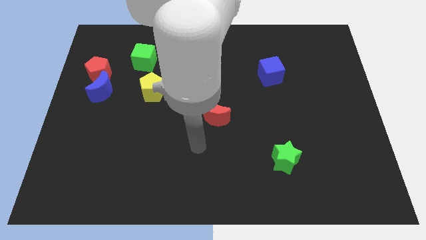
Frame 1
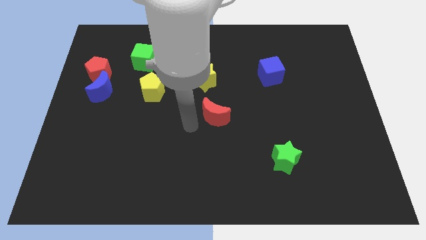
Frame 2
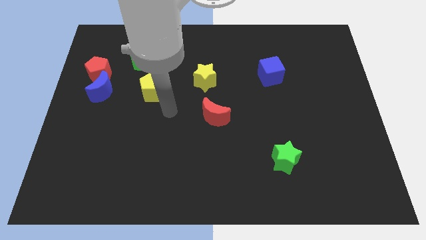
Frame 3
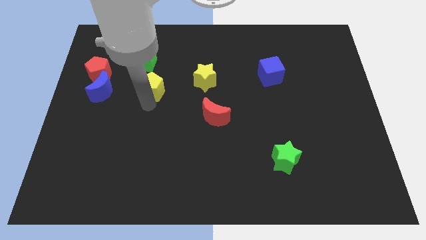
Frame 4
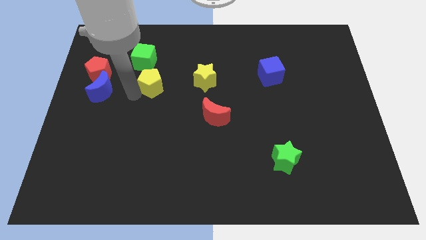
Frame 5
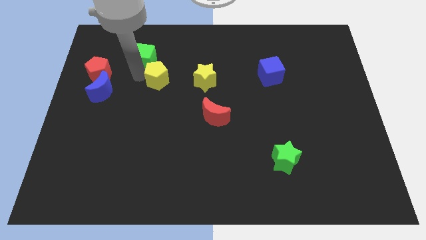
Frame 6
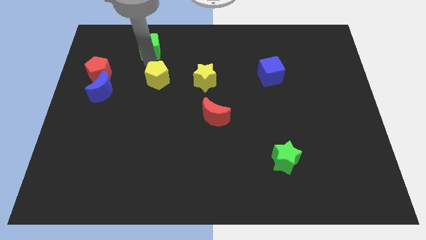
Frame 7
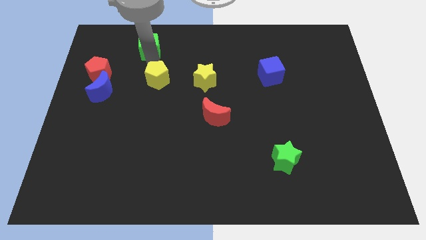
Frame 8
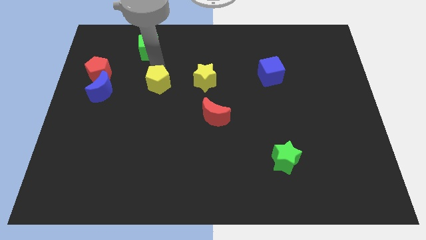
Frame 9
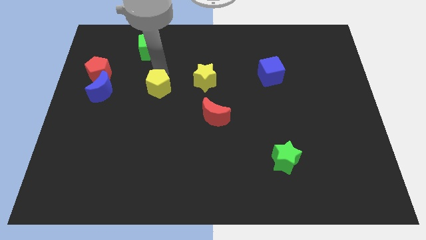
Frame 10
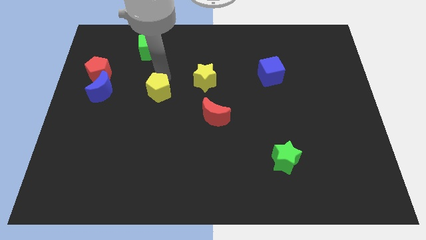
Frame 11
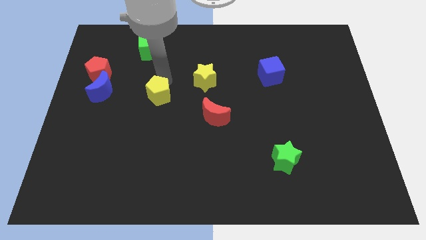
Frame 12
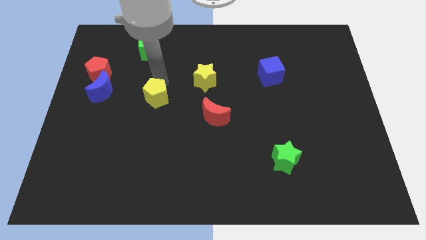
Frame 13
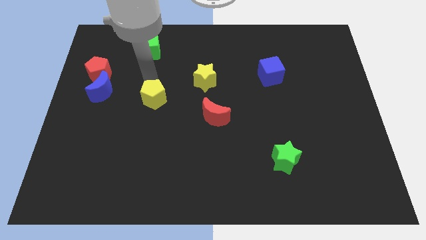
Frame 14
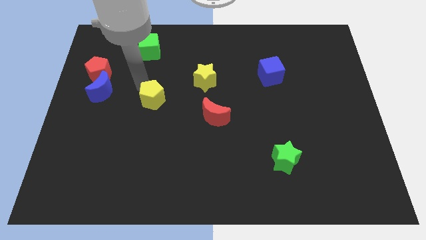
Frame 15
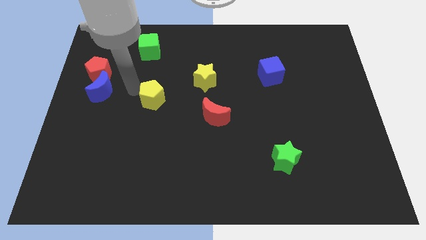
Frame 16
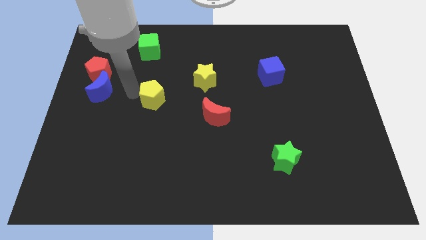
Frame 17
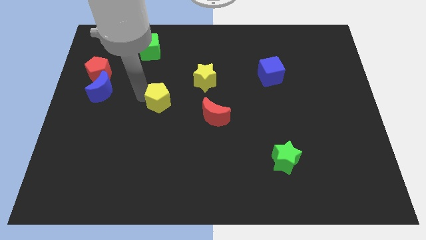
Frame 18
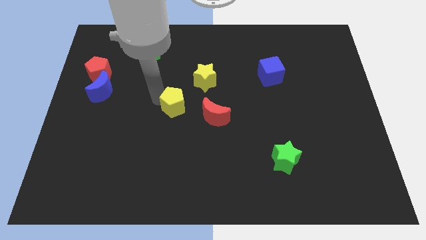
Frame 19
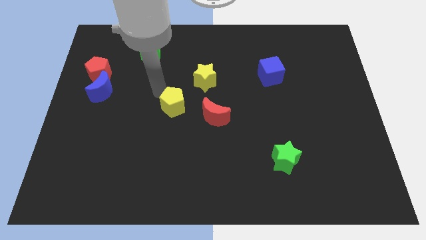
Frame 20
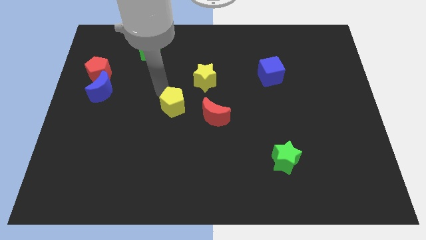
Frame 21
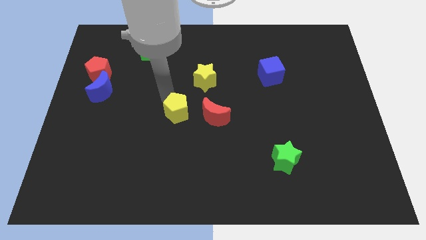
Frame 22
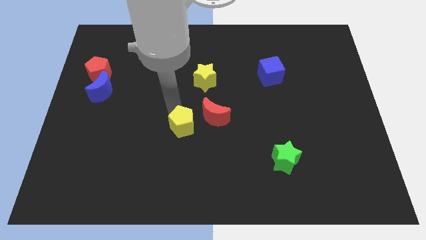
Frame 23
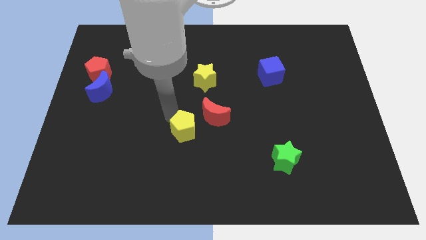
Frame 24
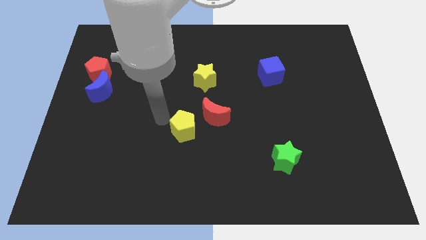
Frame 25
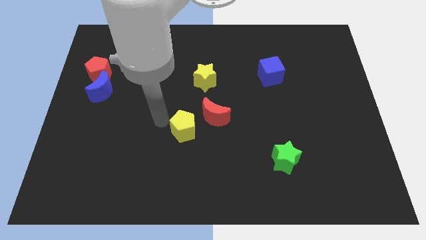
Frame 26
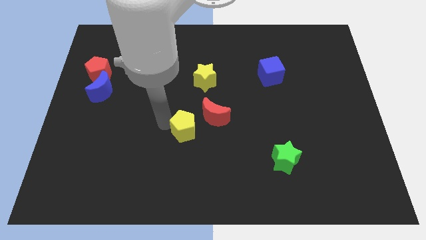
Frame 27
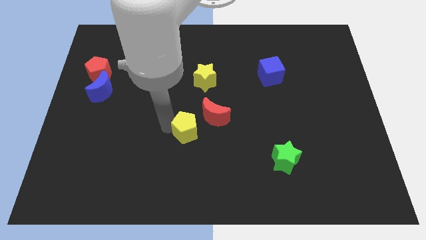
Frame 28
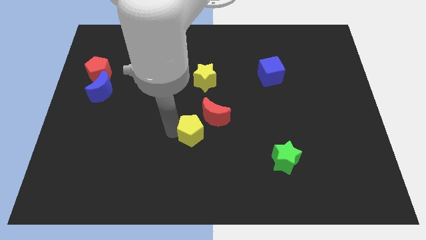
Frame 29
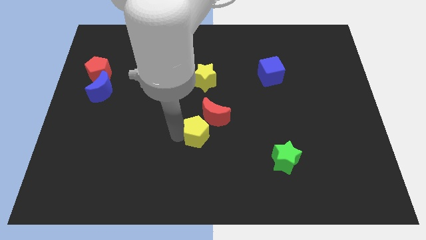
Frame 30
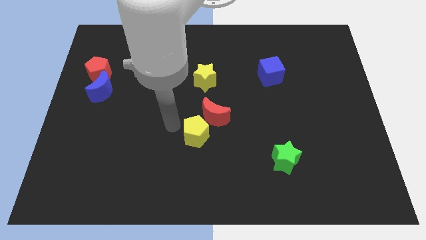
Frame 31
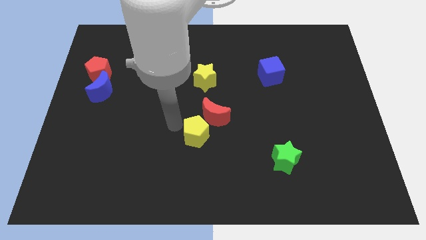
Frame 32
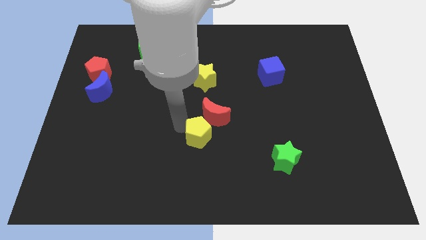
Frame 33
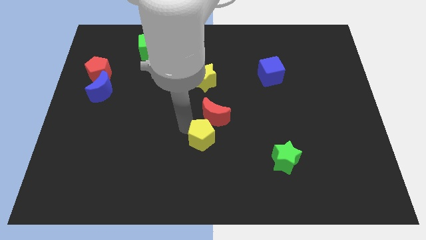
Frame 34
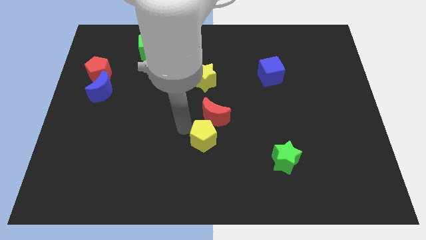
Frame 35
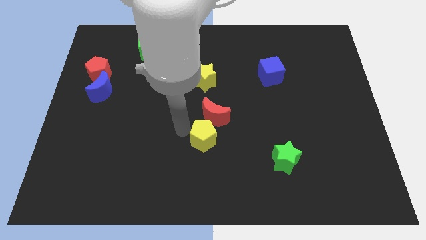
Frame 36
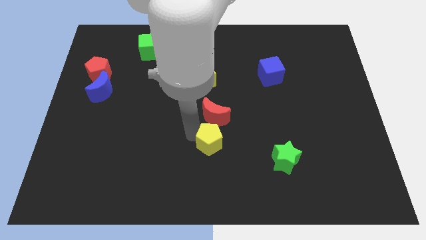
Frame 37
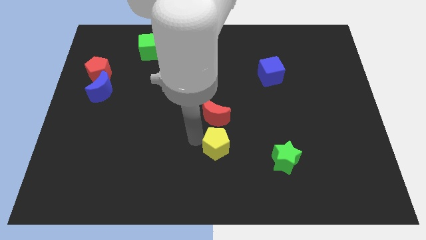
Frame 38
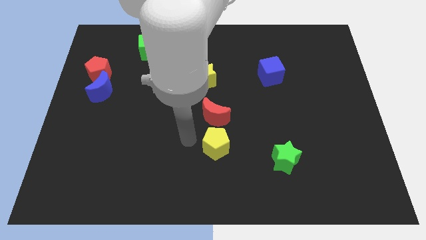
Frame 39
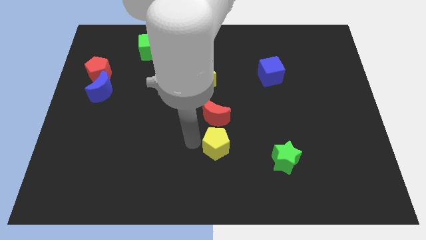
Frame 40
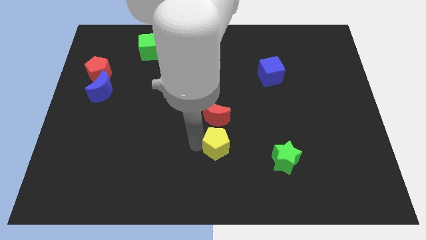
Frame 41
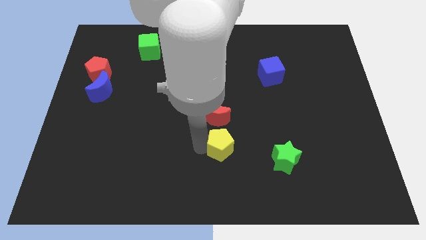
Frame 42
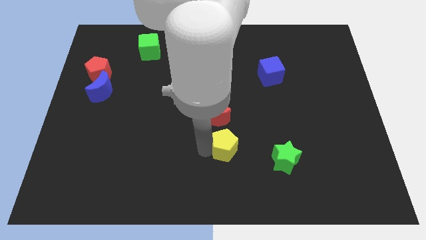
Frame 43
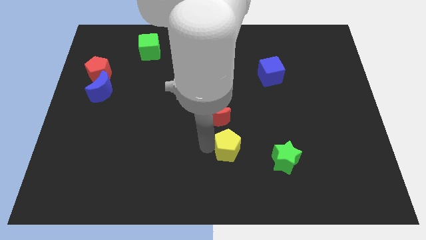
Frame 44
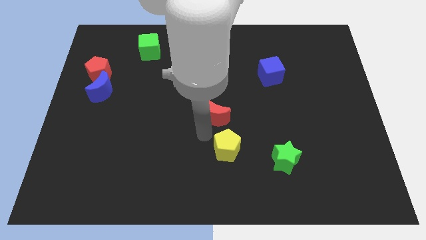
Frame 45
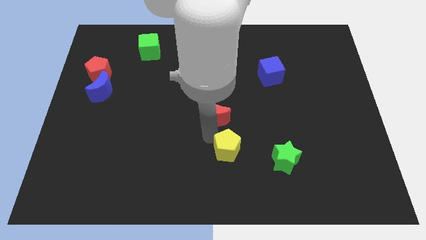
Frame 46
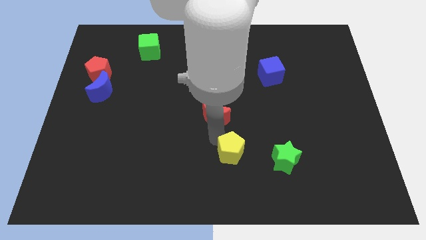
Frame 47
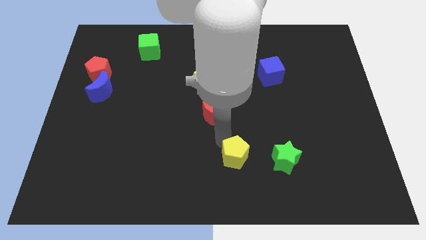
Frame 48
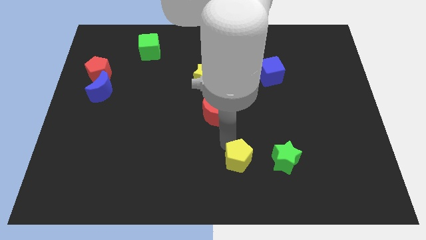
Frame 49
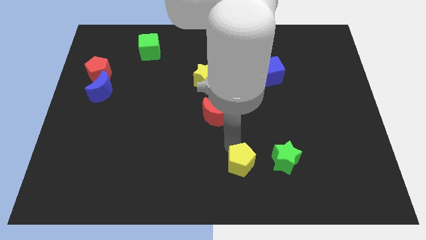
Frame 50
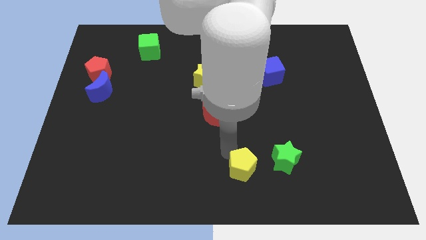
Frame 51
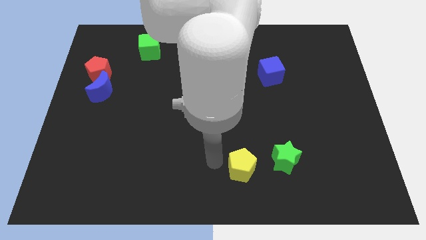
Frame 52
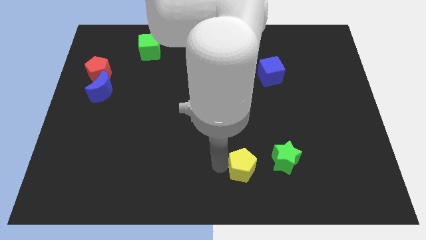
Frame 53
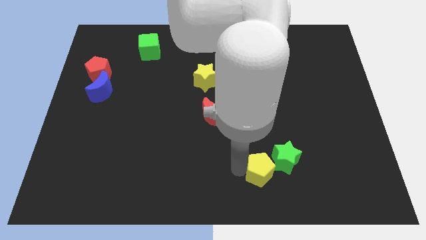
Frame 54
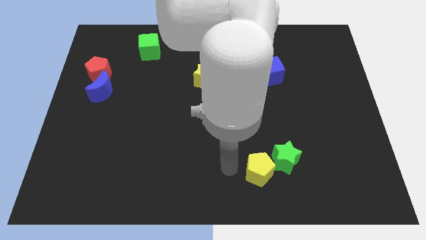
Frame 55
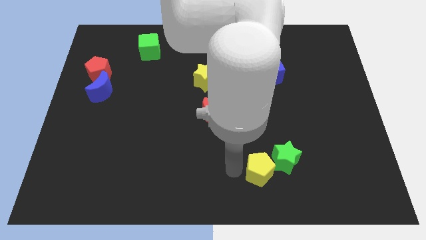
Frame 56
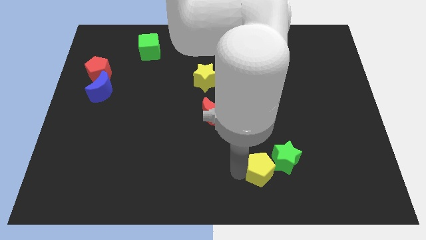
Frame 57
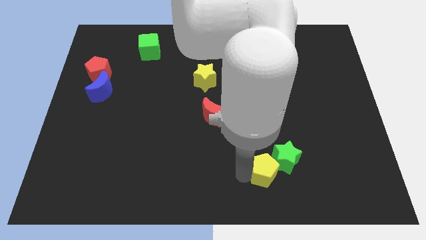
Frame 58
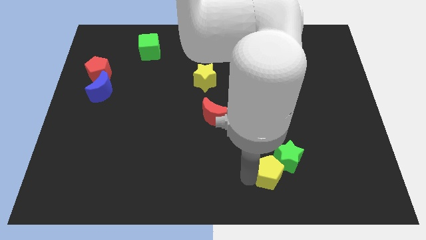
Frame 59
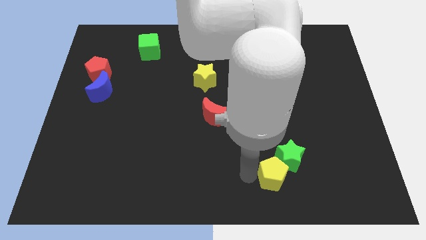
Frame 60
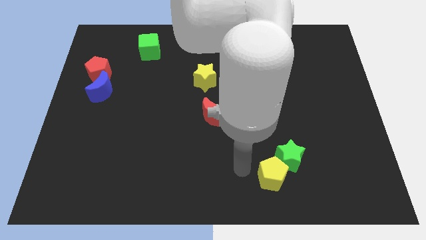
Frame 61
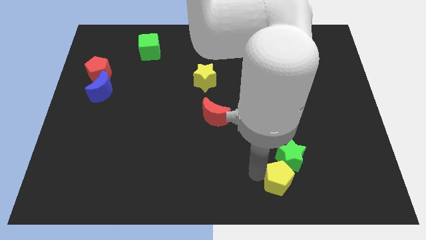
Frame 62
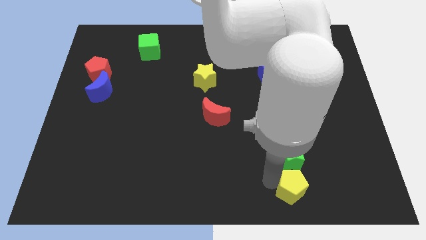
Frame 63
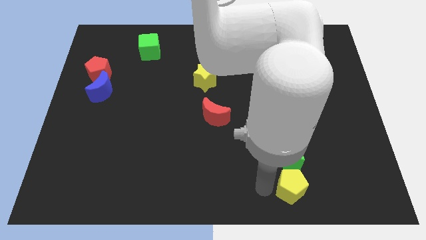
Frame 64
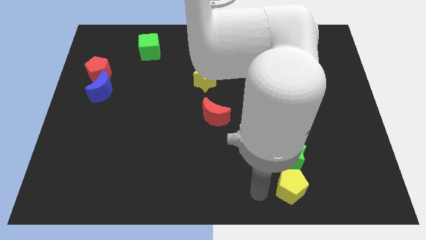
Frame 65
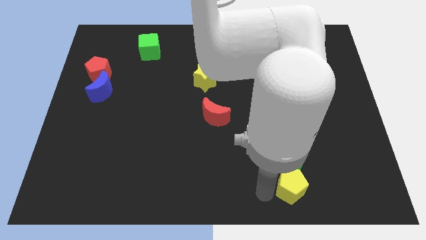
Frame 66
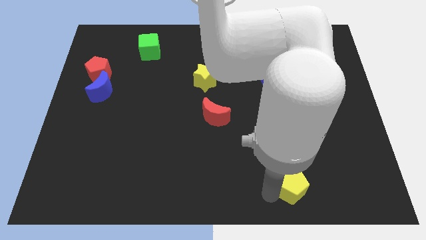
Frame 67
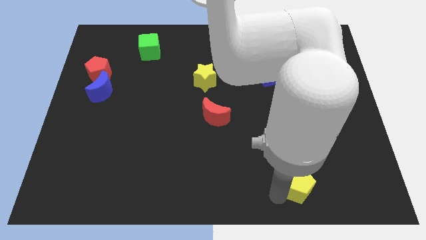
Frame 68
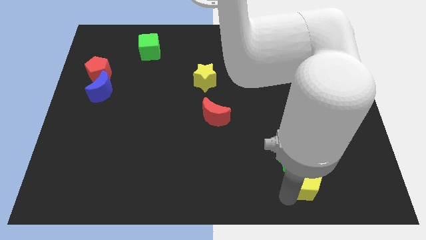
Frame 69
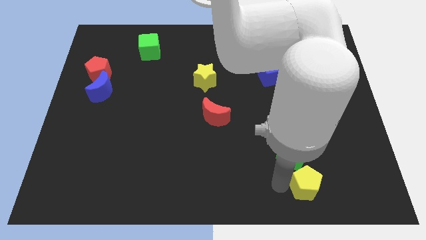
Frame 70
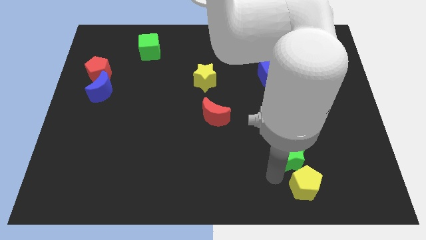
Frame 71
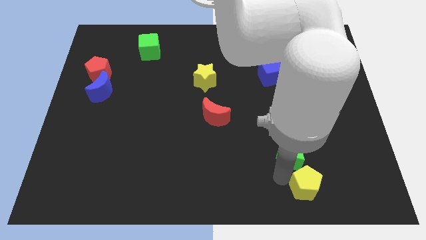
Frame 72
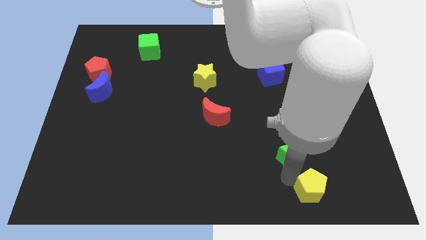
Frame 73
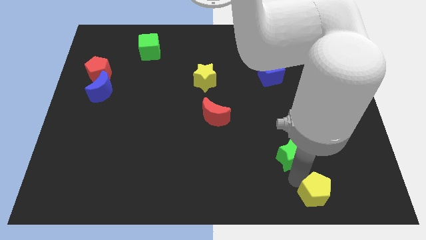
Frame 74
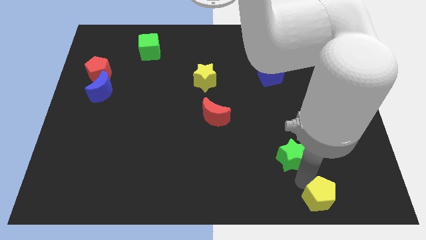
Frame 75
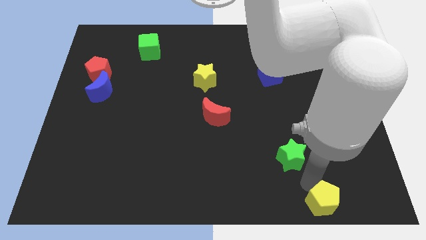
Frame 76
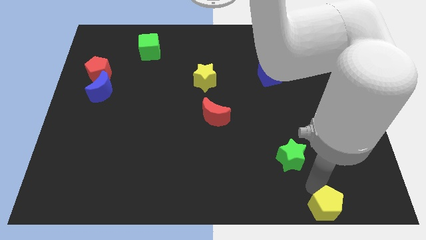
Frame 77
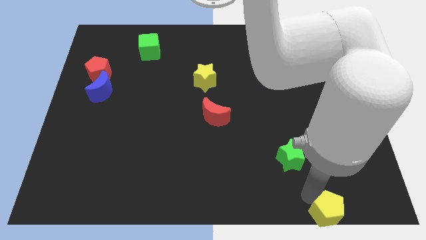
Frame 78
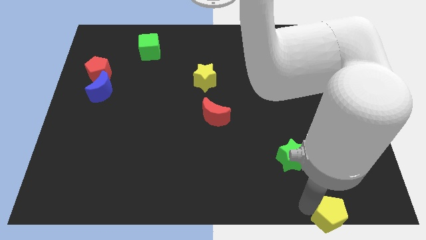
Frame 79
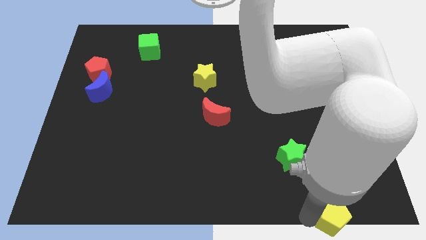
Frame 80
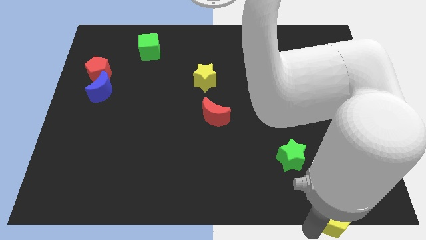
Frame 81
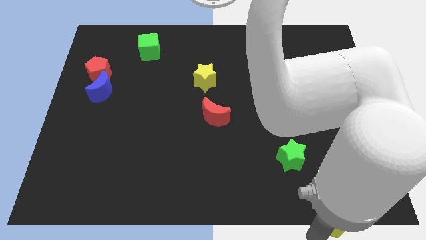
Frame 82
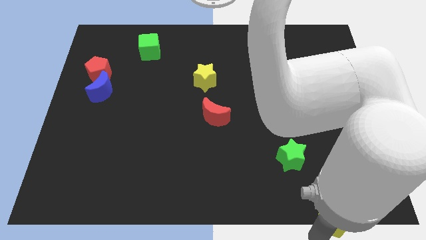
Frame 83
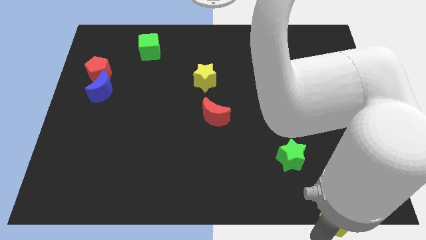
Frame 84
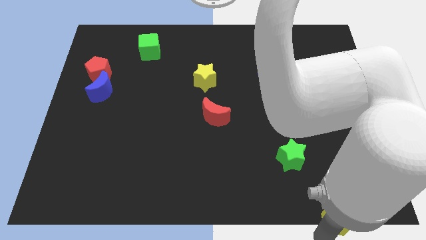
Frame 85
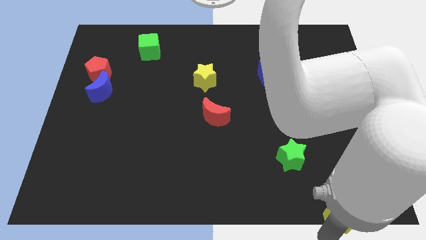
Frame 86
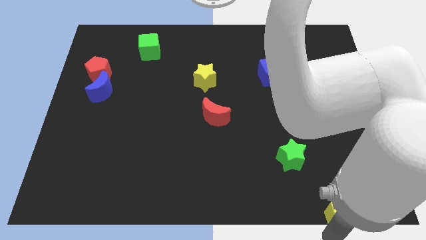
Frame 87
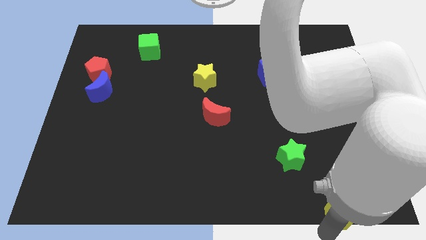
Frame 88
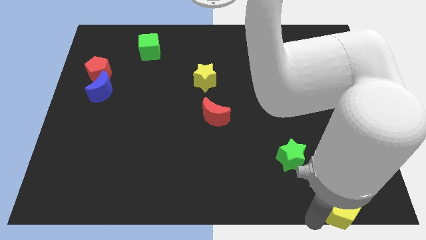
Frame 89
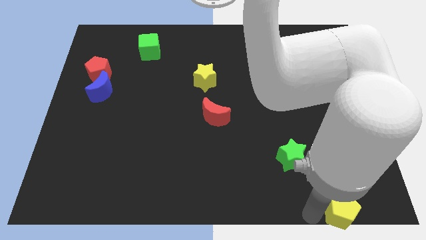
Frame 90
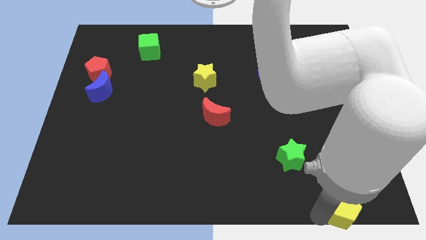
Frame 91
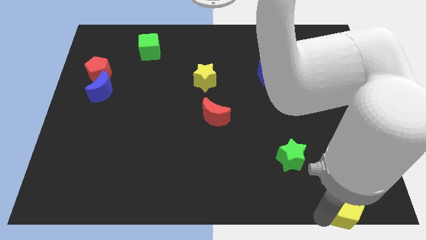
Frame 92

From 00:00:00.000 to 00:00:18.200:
move the yellow pentagon to the lower right corner
